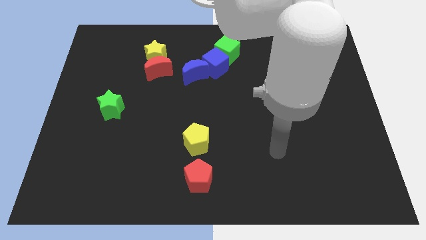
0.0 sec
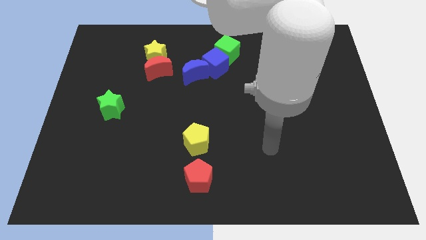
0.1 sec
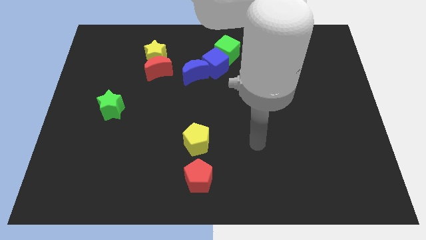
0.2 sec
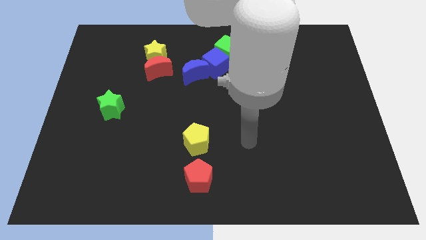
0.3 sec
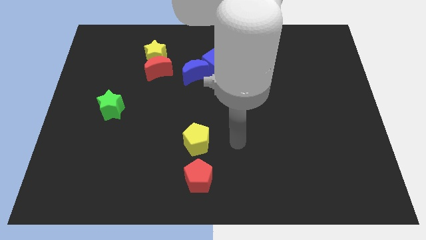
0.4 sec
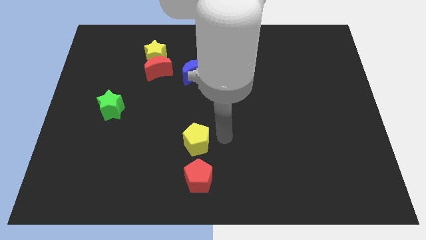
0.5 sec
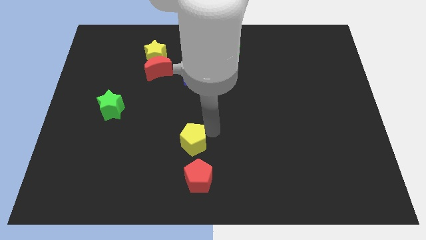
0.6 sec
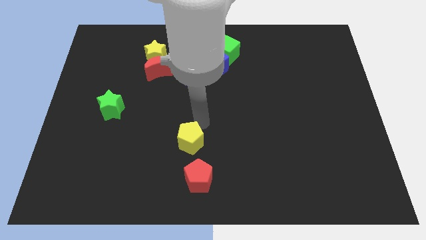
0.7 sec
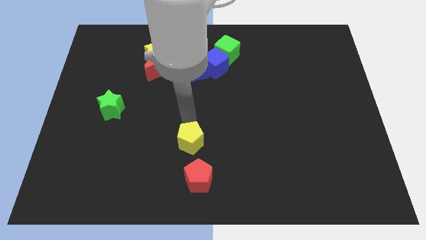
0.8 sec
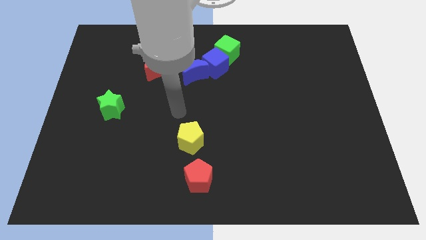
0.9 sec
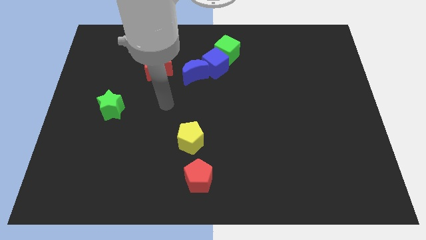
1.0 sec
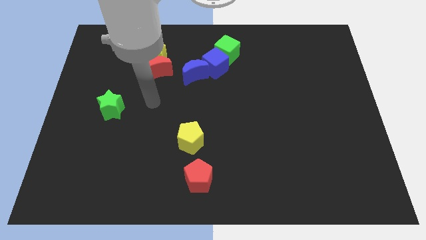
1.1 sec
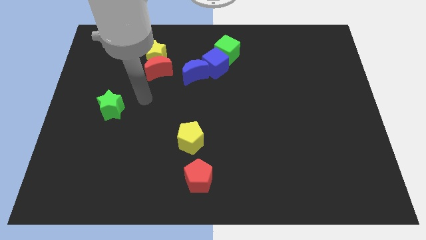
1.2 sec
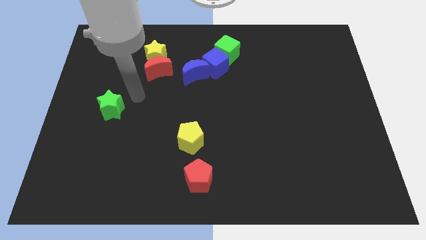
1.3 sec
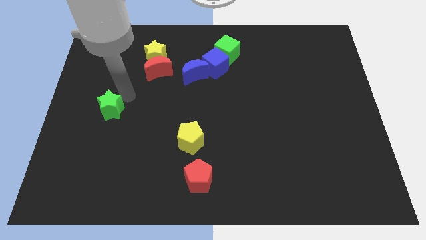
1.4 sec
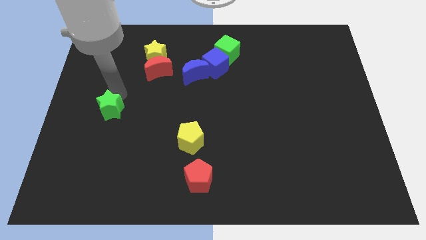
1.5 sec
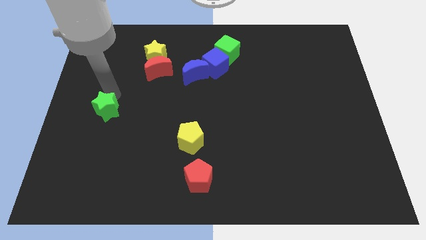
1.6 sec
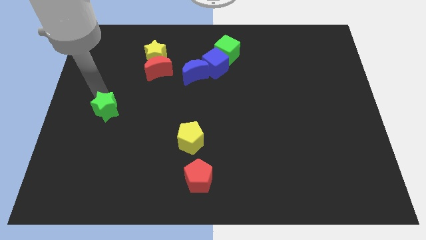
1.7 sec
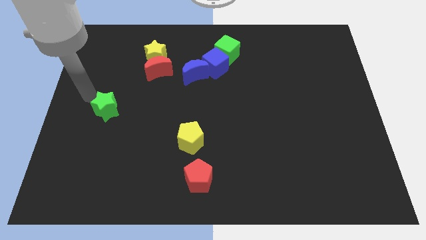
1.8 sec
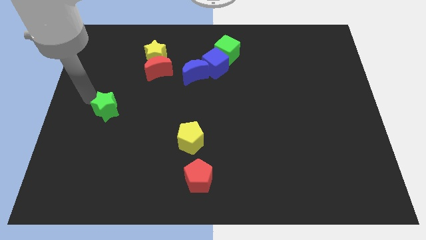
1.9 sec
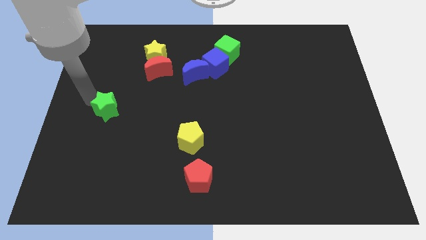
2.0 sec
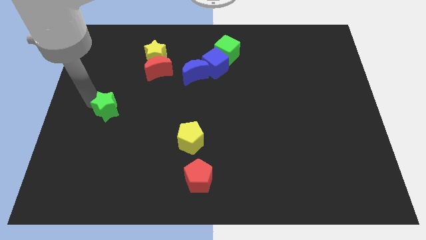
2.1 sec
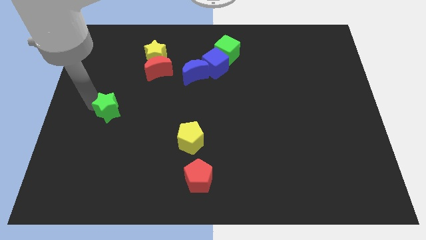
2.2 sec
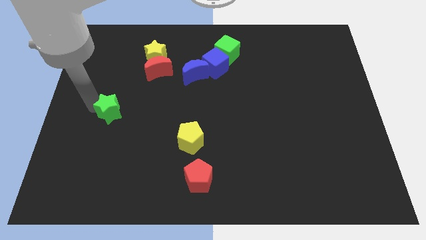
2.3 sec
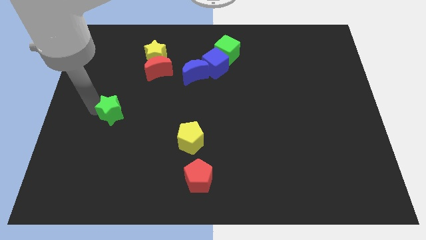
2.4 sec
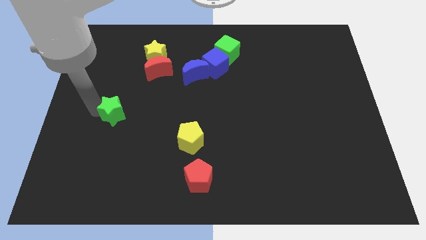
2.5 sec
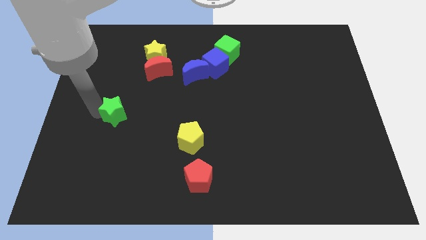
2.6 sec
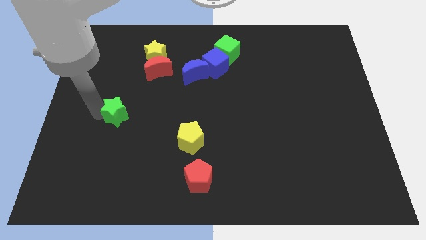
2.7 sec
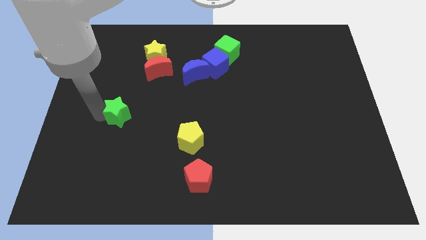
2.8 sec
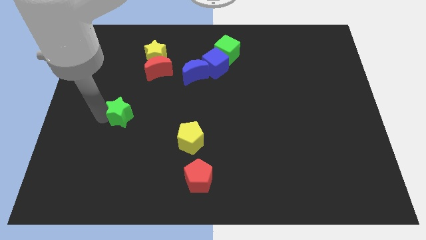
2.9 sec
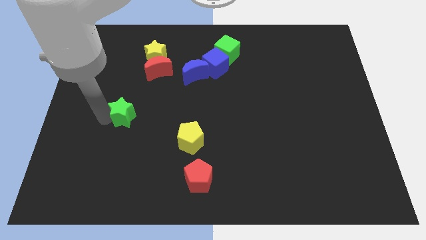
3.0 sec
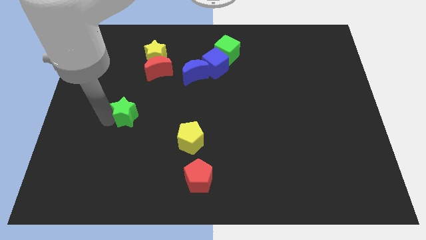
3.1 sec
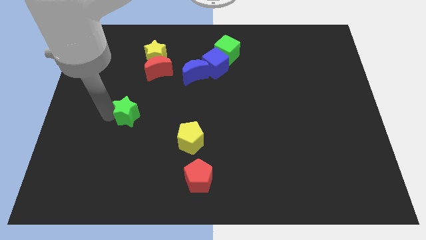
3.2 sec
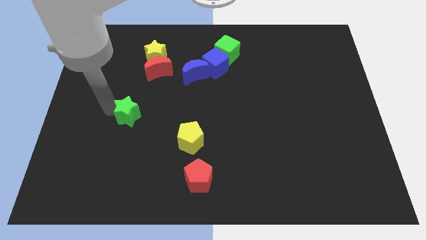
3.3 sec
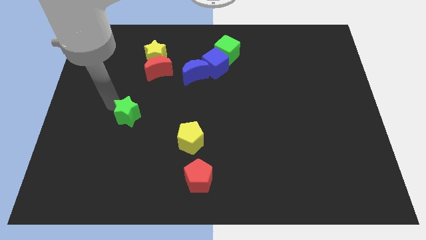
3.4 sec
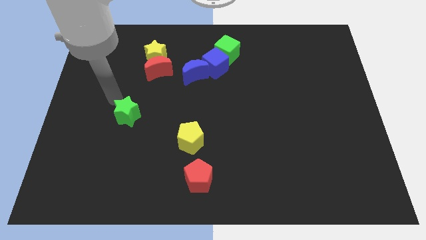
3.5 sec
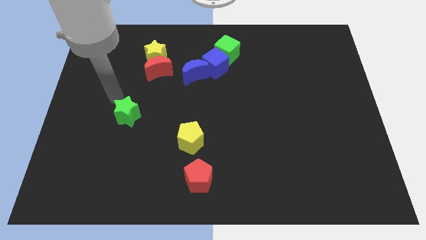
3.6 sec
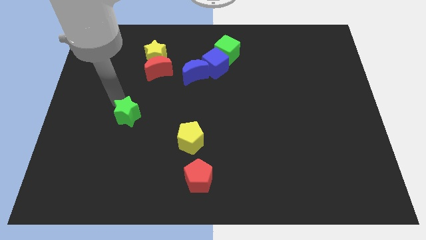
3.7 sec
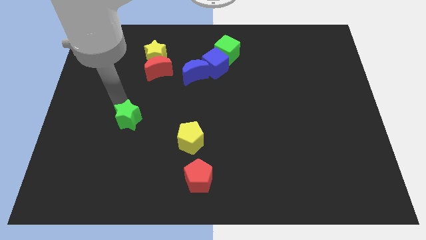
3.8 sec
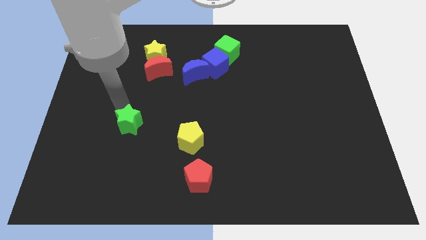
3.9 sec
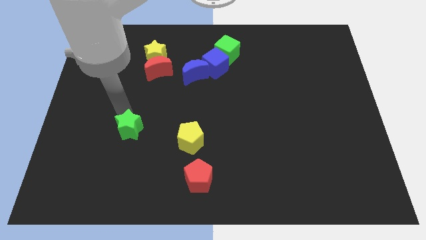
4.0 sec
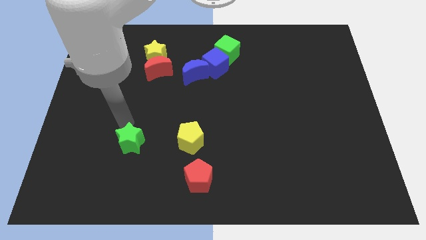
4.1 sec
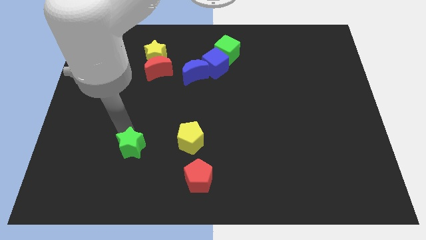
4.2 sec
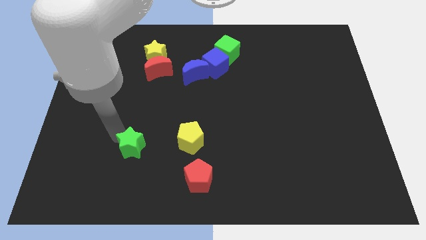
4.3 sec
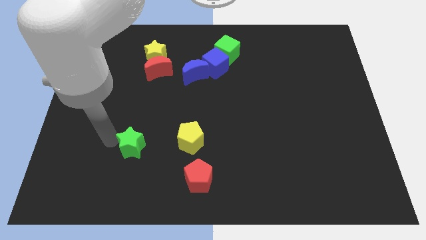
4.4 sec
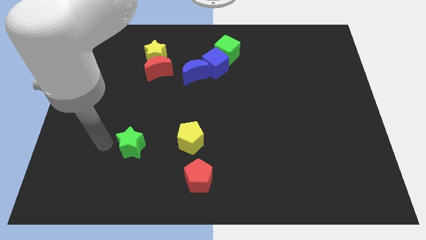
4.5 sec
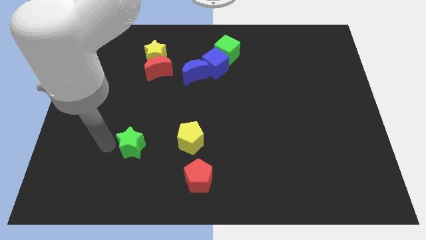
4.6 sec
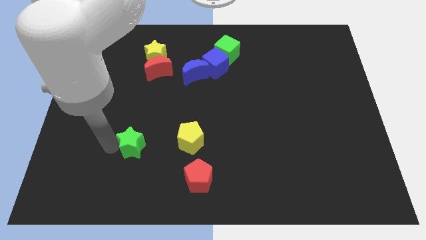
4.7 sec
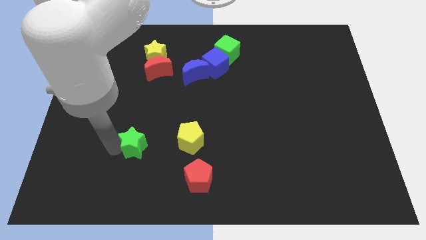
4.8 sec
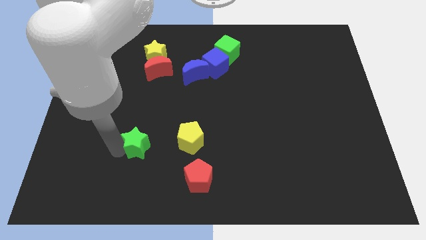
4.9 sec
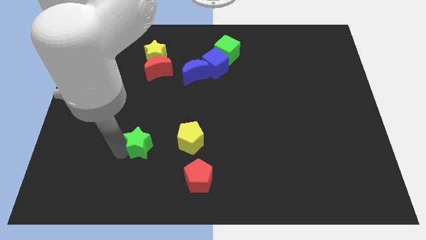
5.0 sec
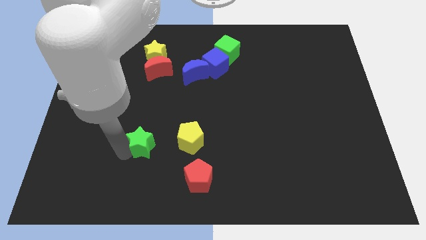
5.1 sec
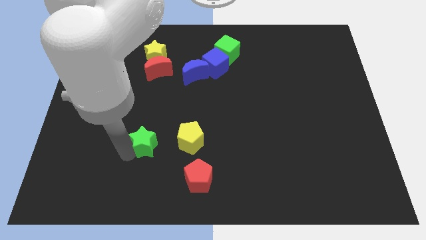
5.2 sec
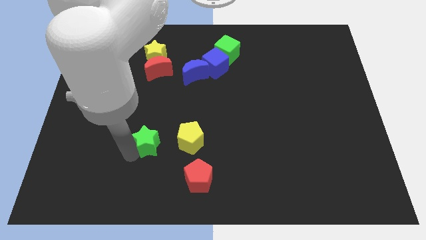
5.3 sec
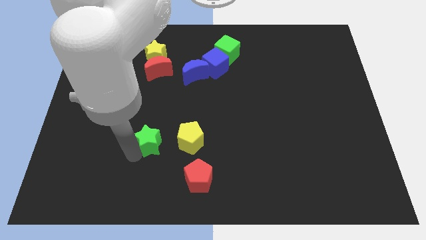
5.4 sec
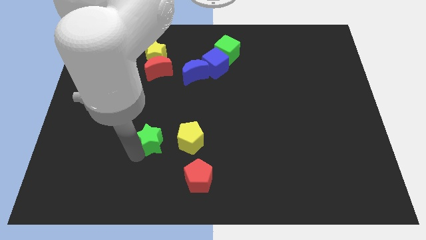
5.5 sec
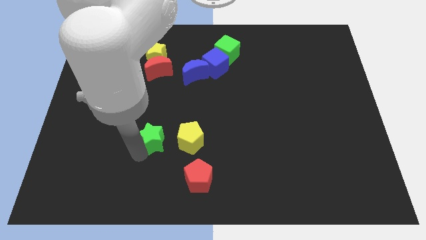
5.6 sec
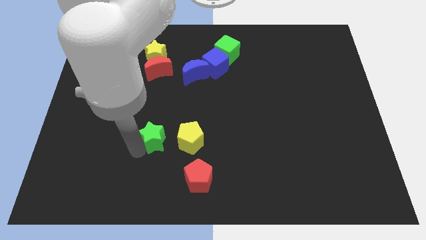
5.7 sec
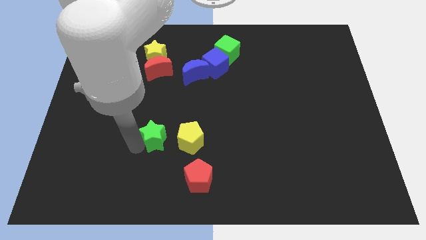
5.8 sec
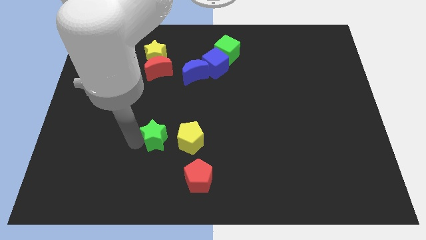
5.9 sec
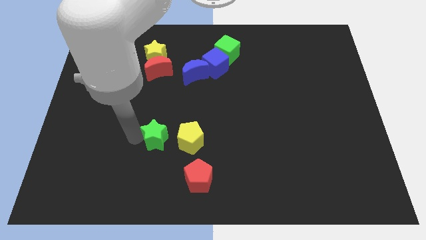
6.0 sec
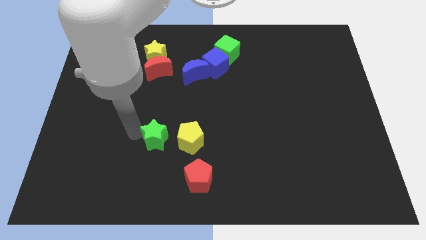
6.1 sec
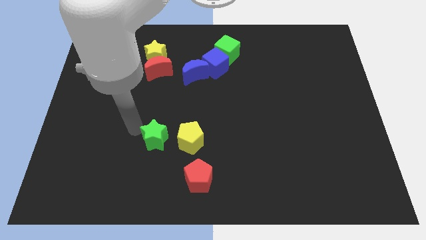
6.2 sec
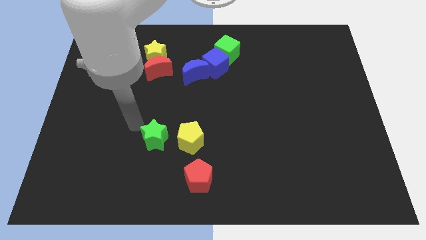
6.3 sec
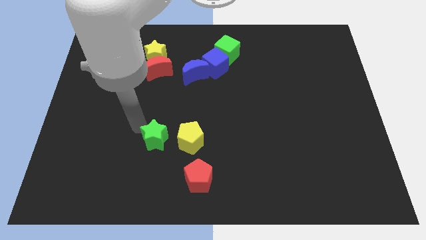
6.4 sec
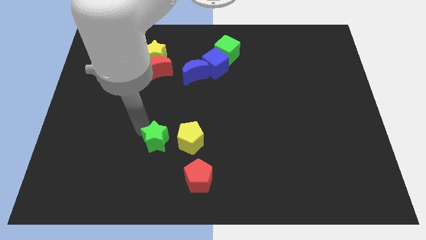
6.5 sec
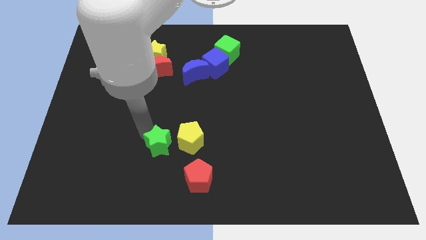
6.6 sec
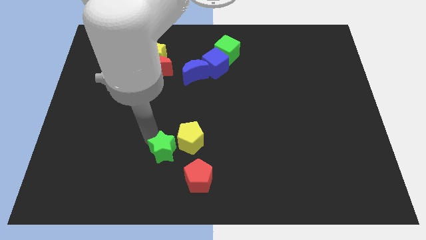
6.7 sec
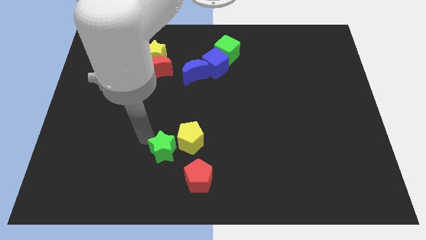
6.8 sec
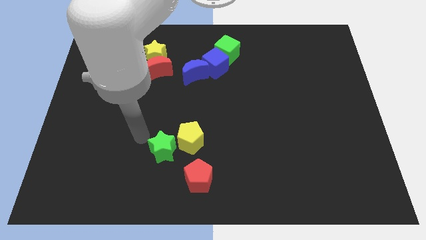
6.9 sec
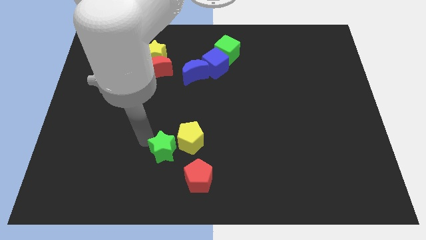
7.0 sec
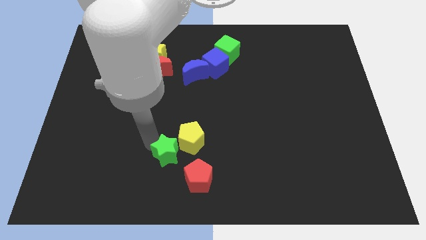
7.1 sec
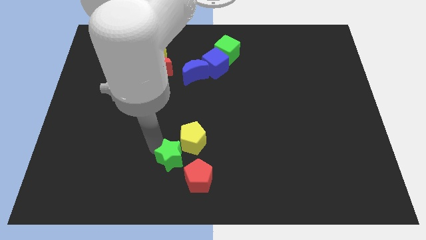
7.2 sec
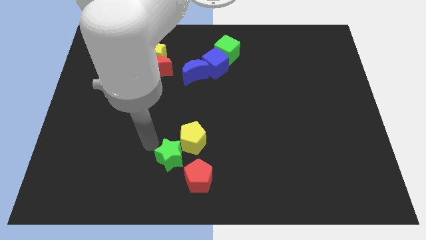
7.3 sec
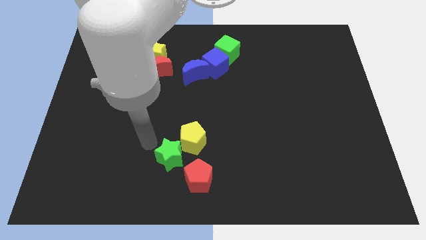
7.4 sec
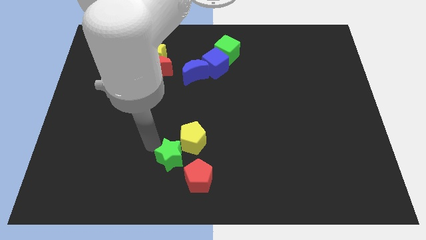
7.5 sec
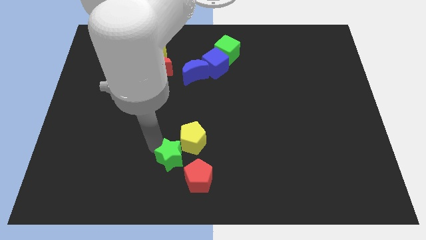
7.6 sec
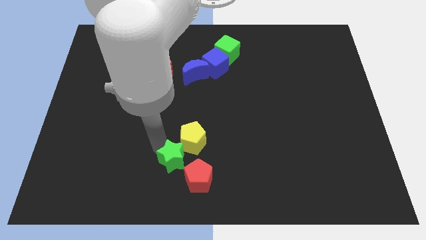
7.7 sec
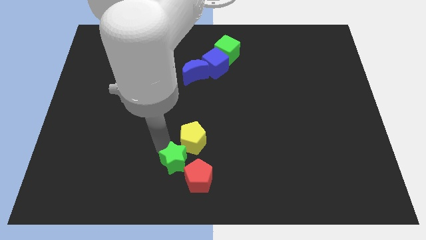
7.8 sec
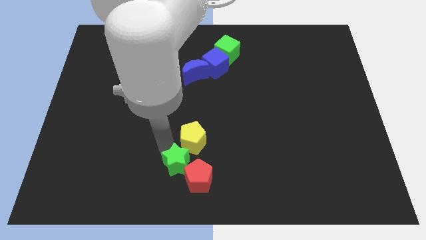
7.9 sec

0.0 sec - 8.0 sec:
put the green star towards the red pentagon

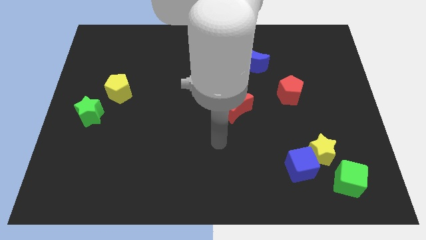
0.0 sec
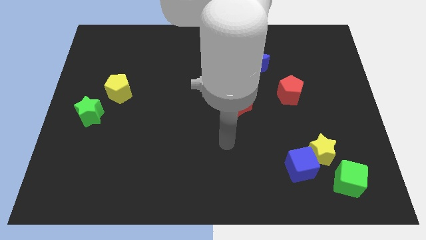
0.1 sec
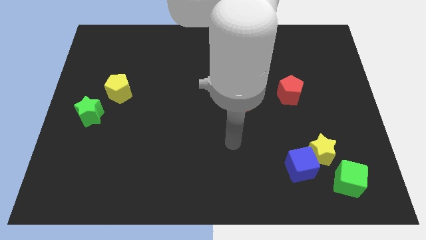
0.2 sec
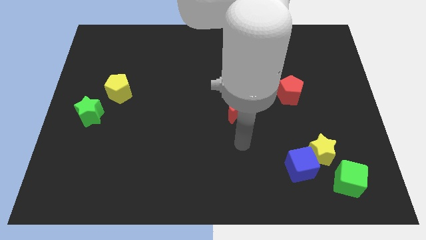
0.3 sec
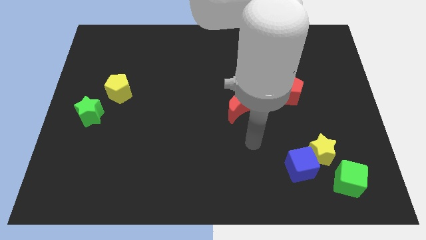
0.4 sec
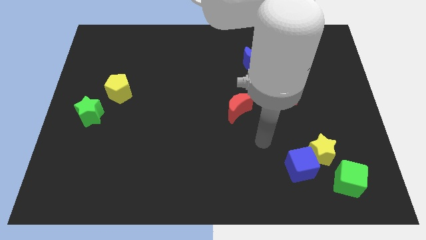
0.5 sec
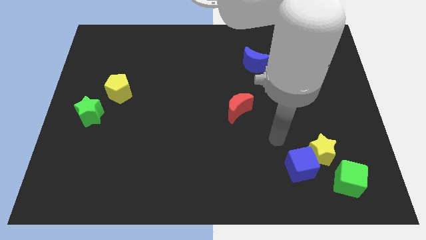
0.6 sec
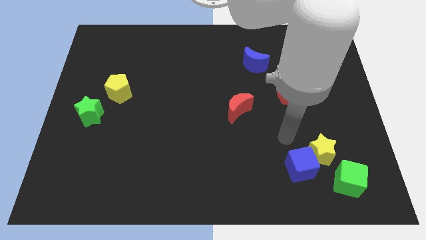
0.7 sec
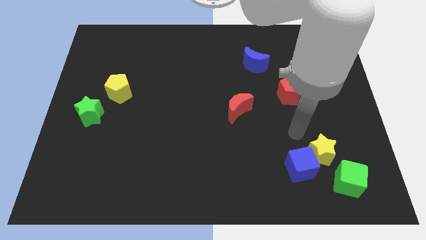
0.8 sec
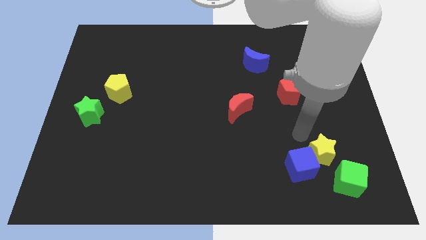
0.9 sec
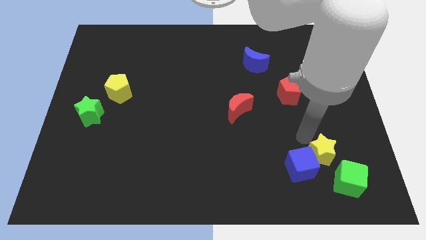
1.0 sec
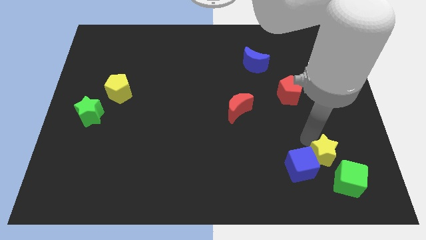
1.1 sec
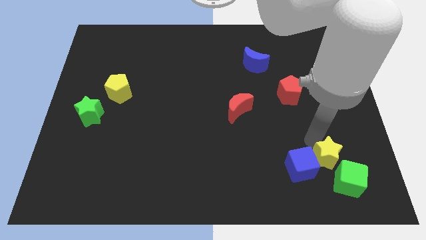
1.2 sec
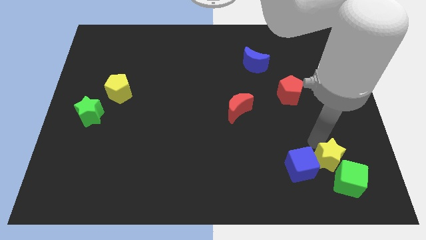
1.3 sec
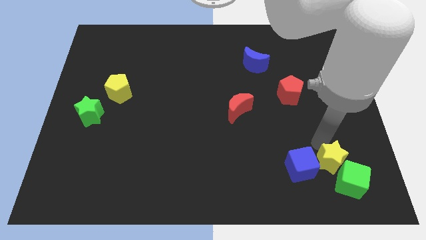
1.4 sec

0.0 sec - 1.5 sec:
put the yellow star close to the green cube
